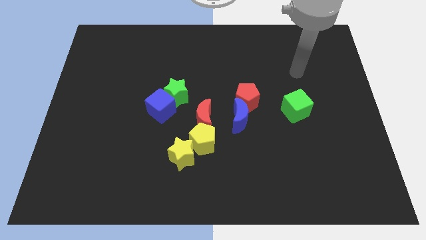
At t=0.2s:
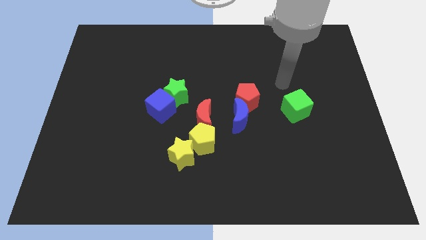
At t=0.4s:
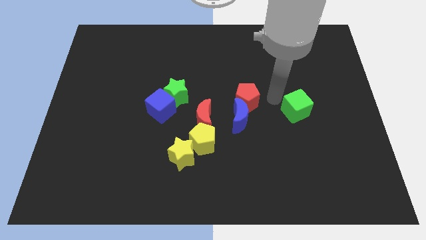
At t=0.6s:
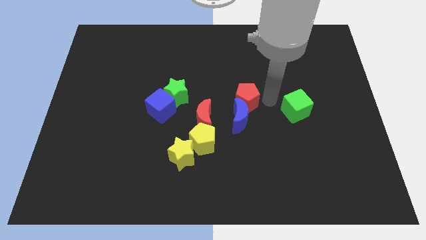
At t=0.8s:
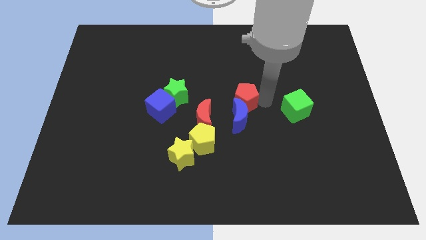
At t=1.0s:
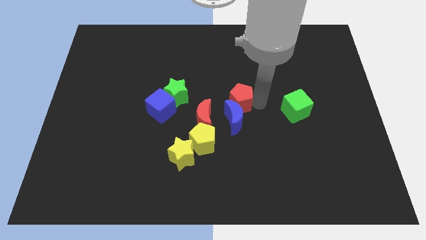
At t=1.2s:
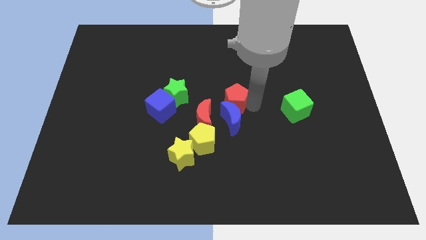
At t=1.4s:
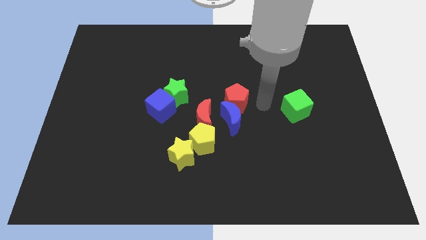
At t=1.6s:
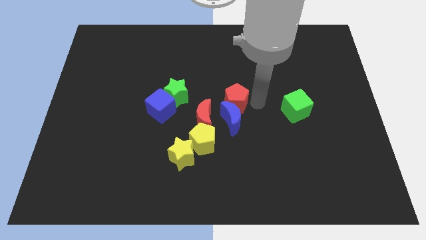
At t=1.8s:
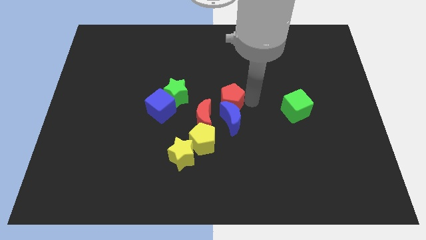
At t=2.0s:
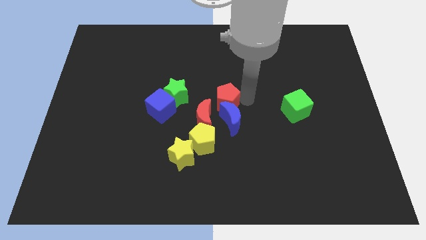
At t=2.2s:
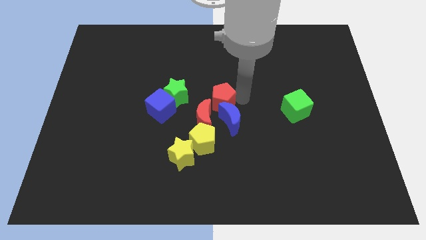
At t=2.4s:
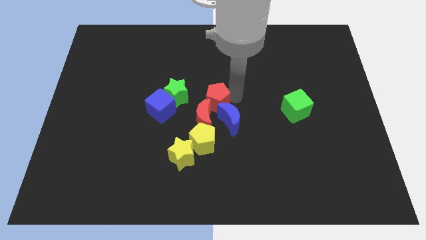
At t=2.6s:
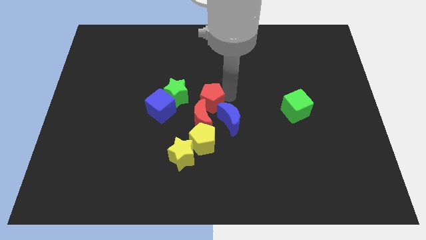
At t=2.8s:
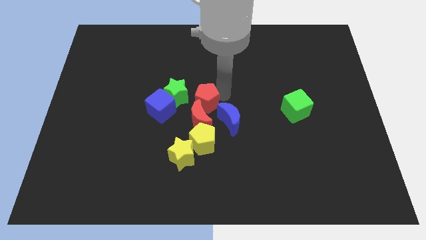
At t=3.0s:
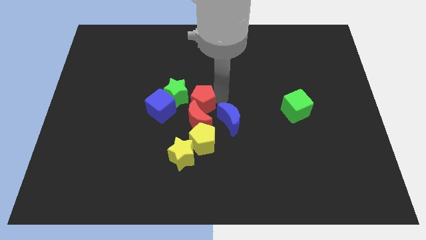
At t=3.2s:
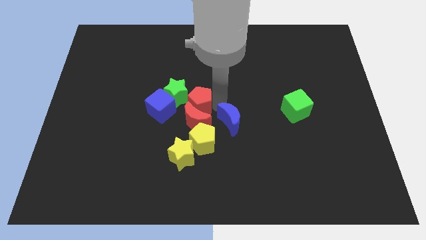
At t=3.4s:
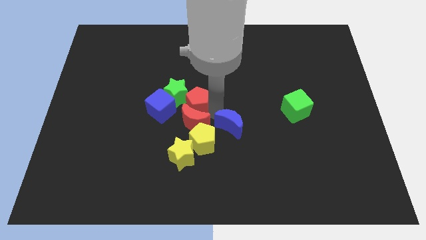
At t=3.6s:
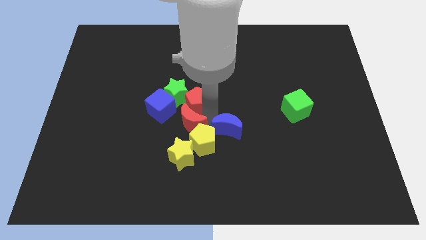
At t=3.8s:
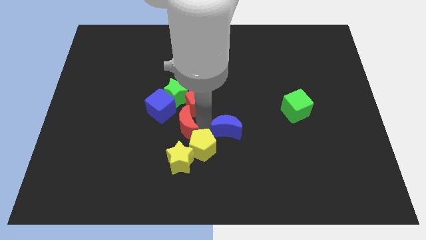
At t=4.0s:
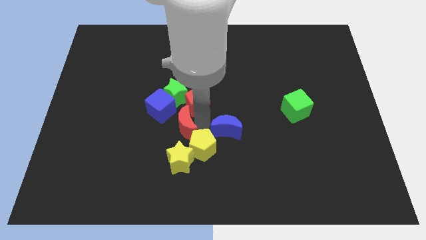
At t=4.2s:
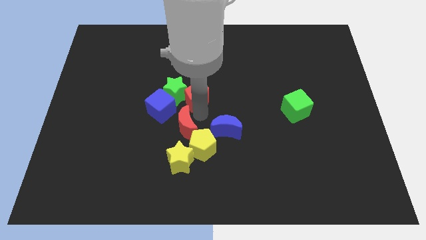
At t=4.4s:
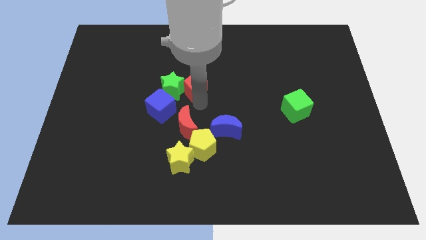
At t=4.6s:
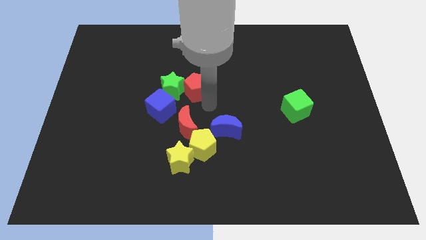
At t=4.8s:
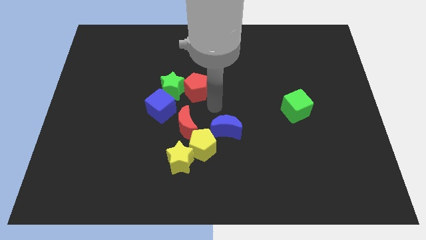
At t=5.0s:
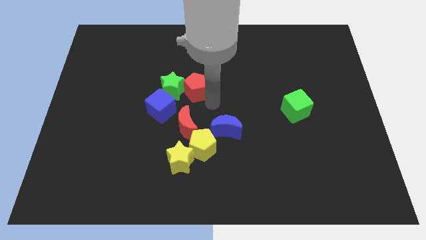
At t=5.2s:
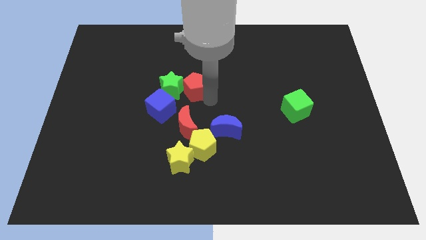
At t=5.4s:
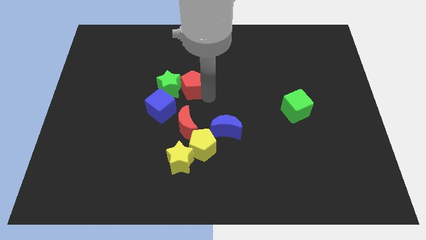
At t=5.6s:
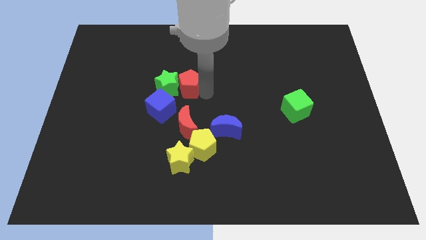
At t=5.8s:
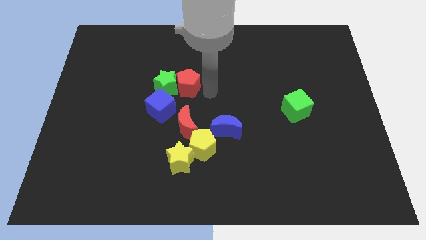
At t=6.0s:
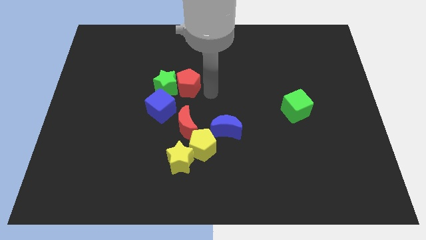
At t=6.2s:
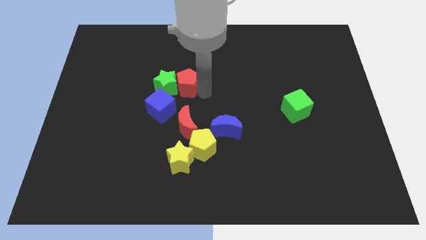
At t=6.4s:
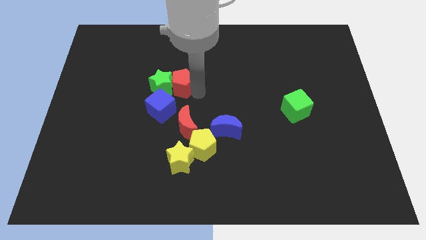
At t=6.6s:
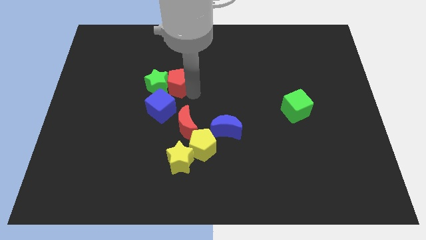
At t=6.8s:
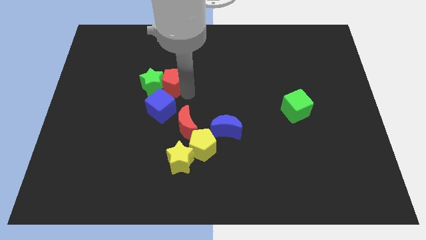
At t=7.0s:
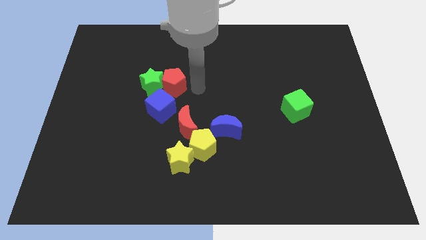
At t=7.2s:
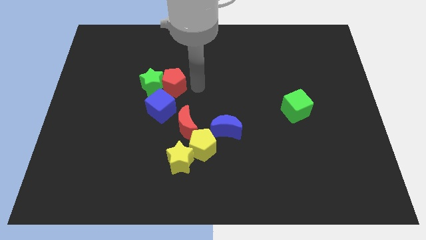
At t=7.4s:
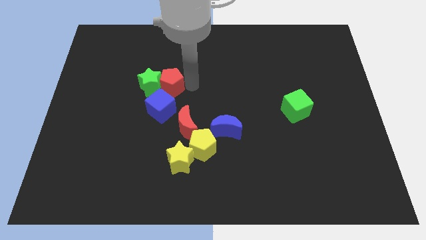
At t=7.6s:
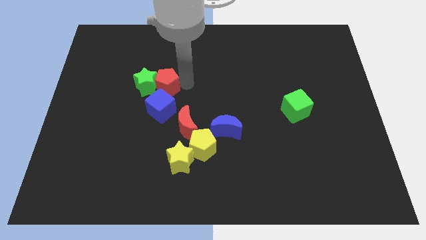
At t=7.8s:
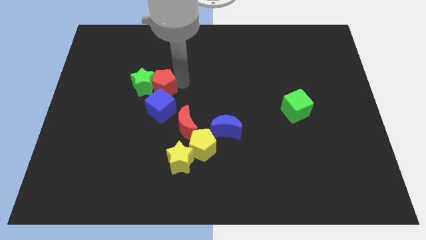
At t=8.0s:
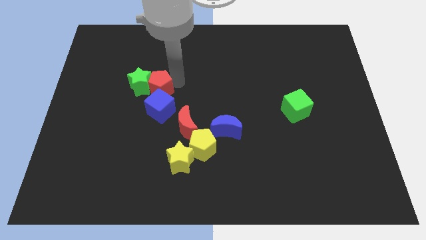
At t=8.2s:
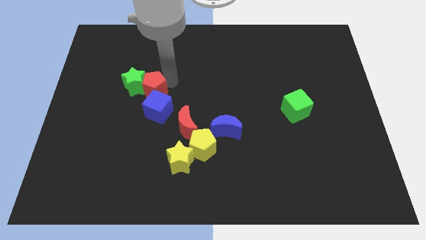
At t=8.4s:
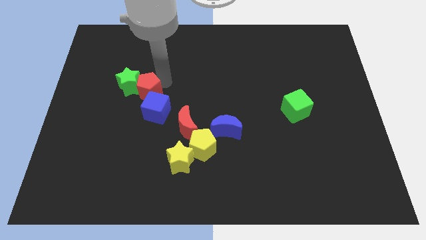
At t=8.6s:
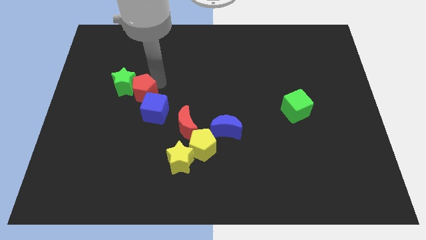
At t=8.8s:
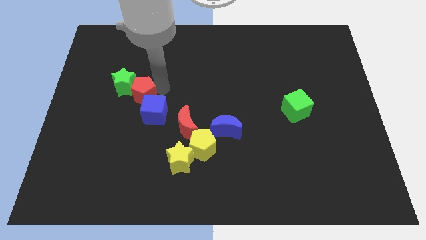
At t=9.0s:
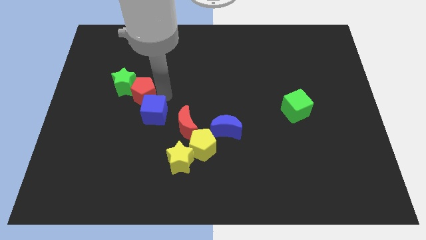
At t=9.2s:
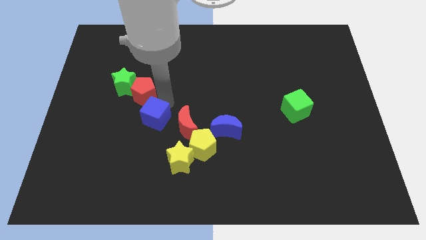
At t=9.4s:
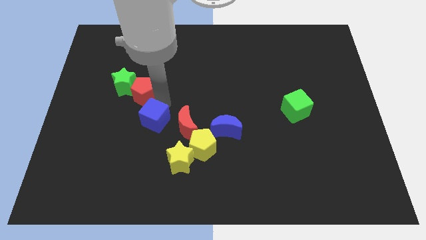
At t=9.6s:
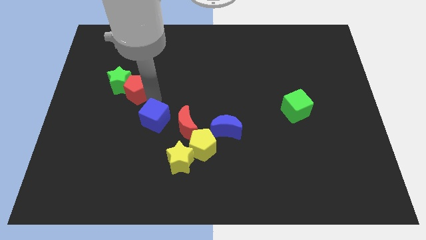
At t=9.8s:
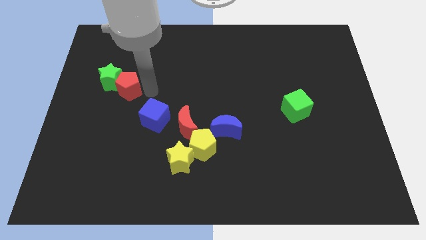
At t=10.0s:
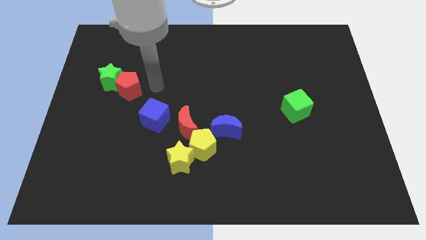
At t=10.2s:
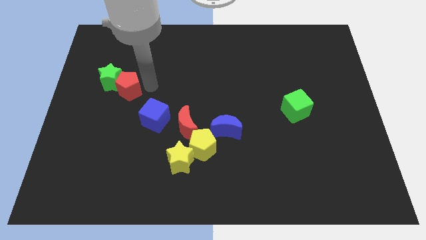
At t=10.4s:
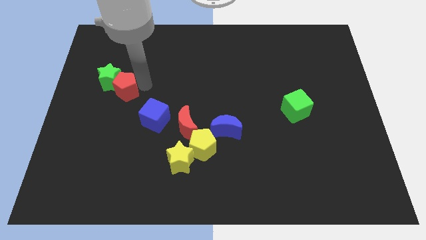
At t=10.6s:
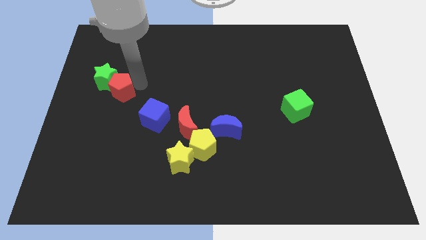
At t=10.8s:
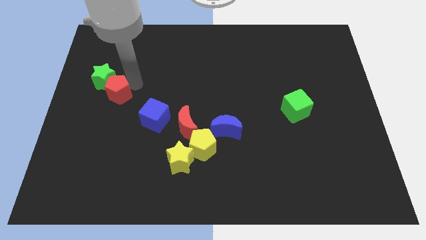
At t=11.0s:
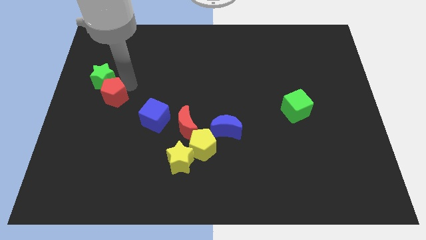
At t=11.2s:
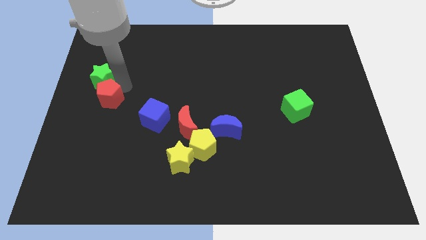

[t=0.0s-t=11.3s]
move the red pentagon to the left side of the board

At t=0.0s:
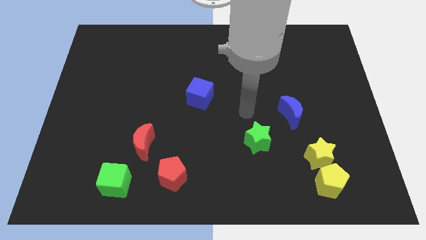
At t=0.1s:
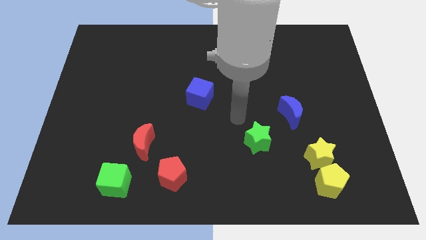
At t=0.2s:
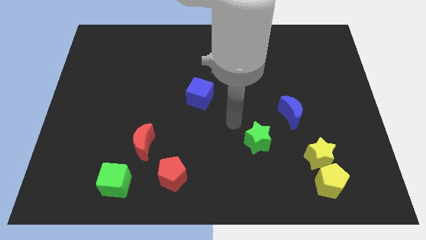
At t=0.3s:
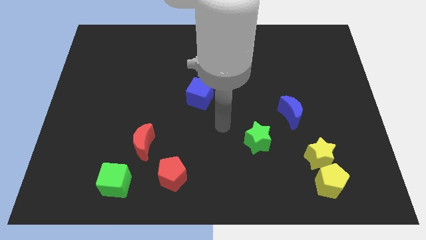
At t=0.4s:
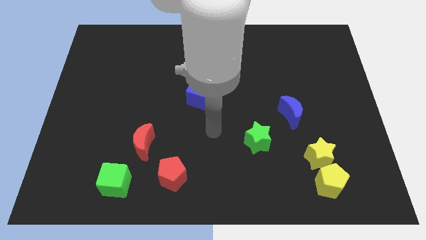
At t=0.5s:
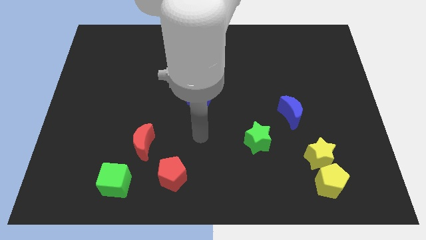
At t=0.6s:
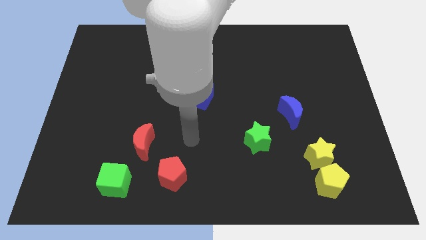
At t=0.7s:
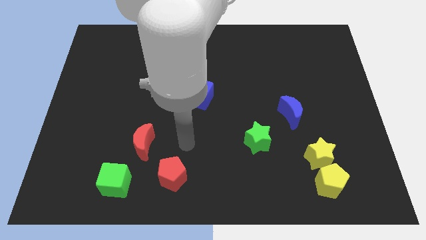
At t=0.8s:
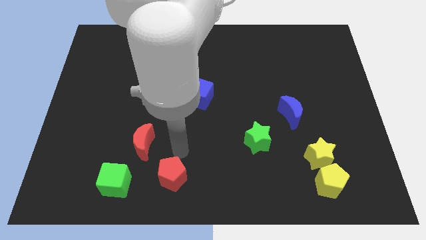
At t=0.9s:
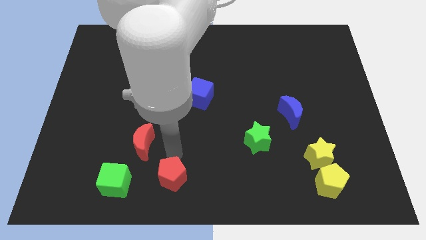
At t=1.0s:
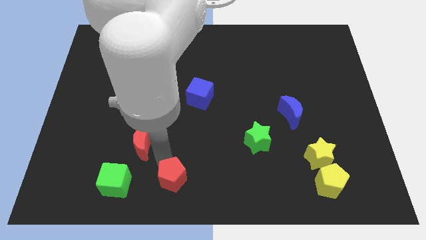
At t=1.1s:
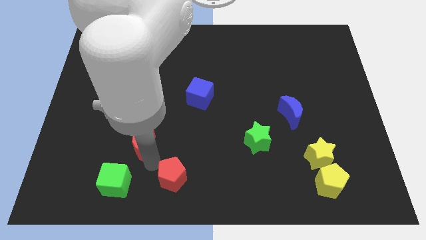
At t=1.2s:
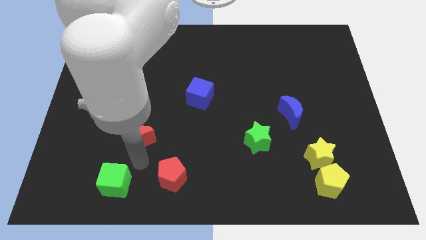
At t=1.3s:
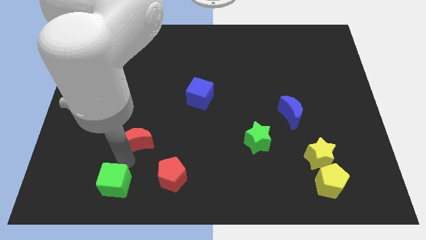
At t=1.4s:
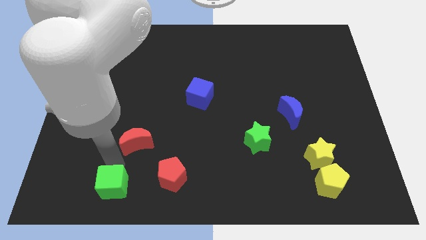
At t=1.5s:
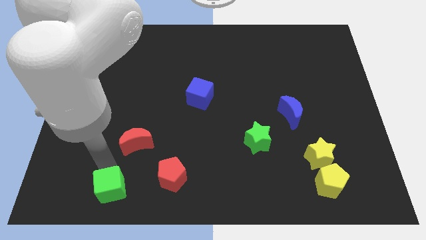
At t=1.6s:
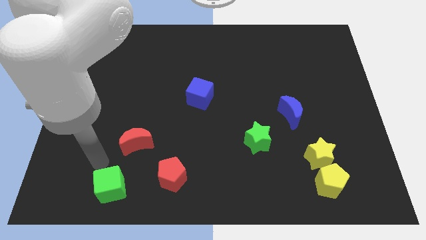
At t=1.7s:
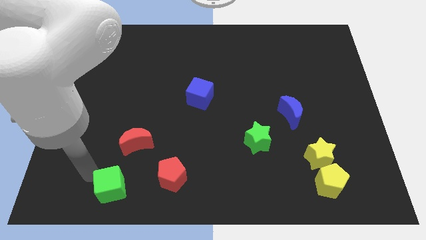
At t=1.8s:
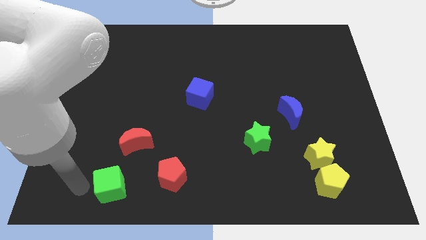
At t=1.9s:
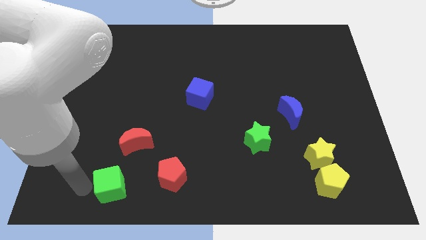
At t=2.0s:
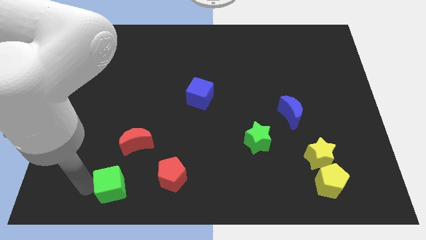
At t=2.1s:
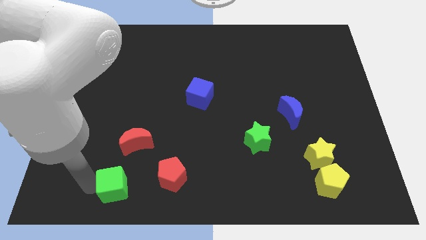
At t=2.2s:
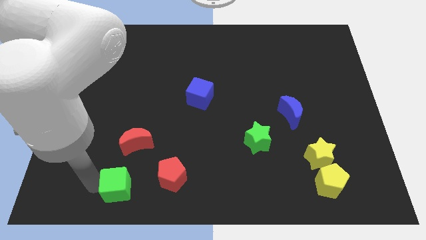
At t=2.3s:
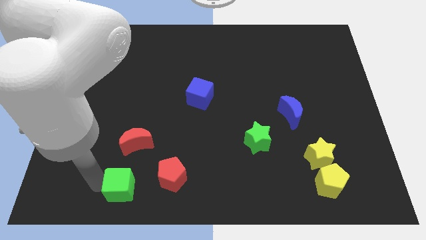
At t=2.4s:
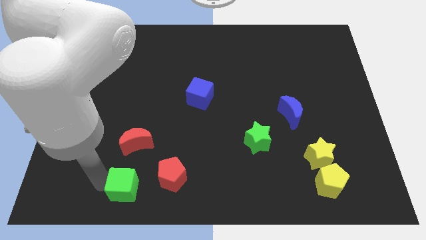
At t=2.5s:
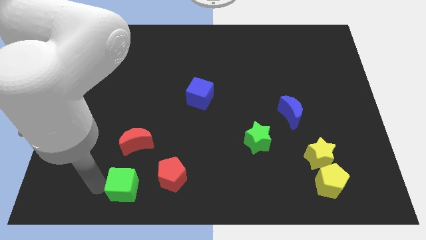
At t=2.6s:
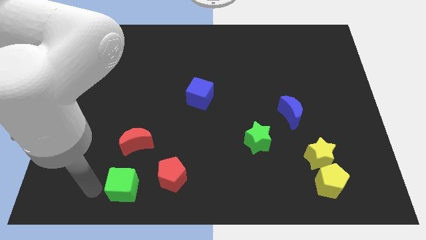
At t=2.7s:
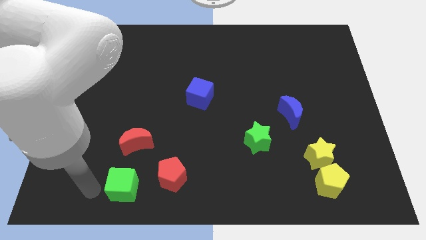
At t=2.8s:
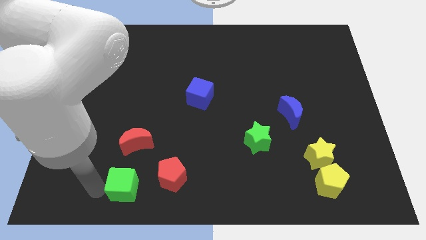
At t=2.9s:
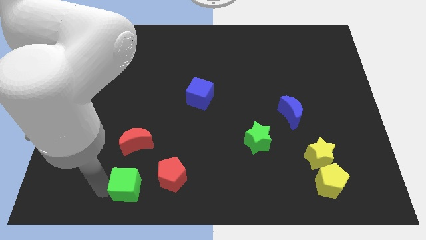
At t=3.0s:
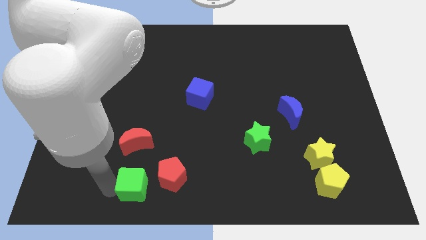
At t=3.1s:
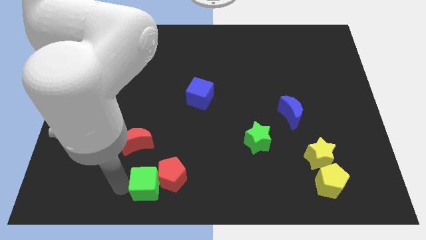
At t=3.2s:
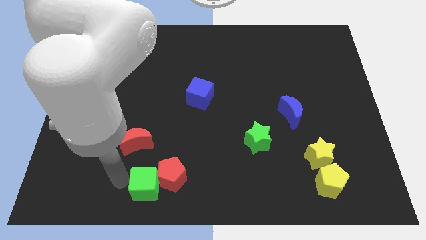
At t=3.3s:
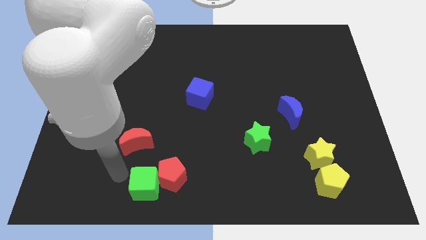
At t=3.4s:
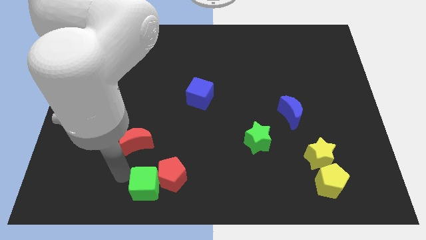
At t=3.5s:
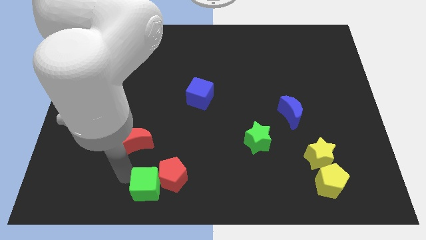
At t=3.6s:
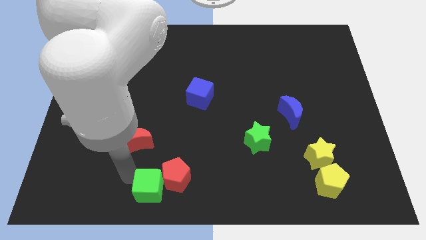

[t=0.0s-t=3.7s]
put the green cube to the bottom side
